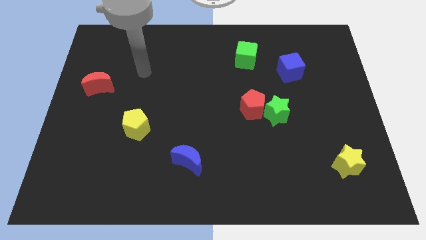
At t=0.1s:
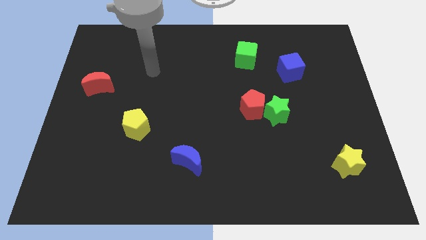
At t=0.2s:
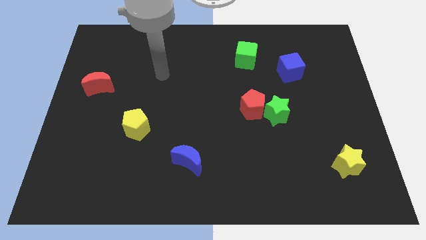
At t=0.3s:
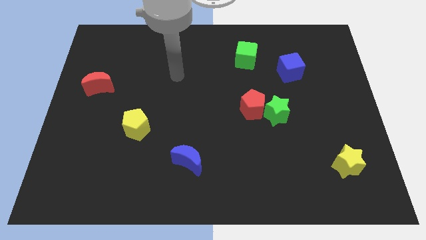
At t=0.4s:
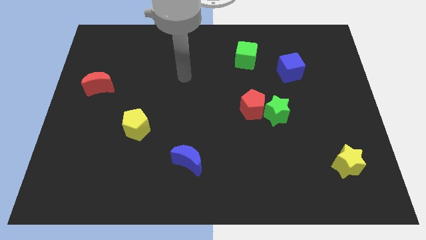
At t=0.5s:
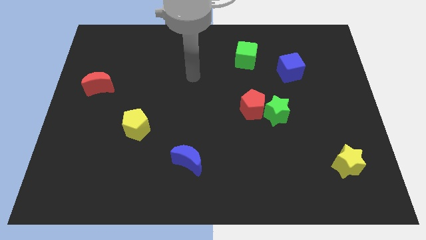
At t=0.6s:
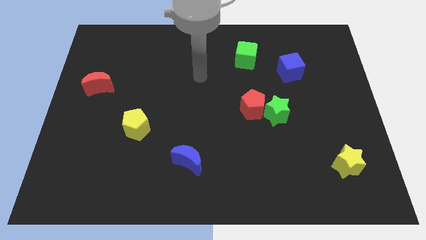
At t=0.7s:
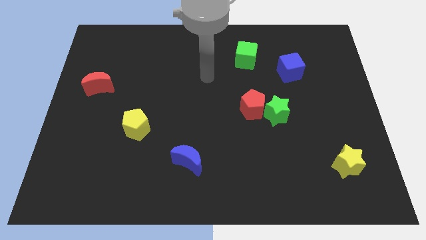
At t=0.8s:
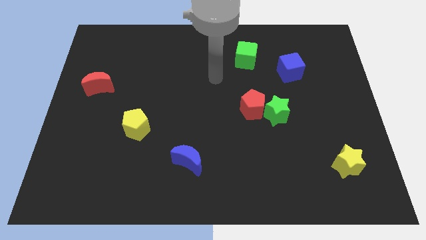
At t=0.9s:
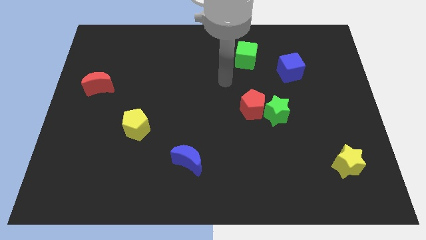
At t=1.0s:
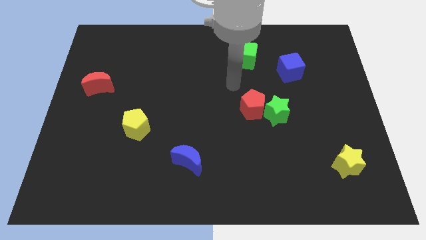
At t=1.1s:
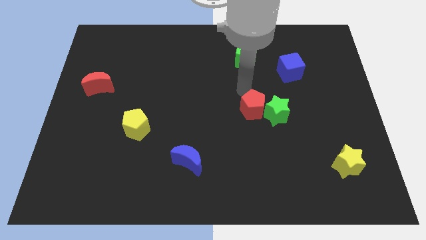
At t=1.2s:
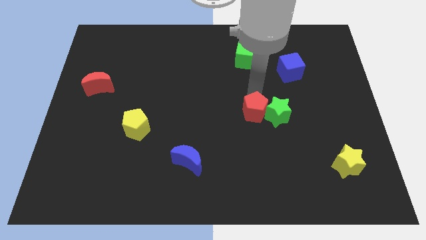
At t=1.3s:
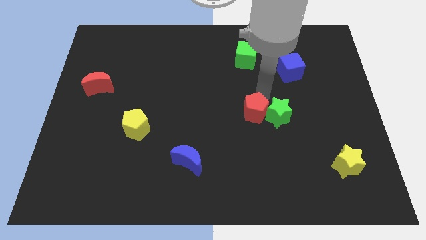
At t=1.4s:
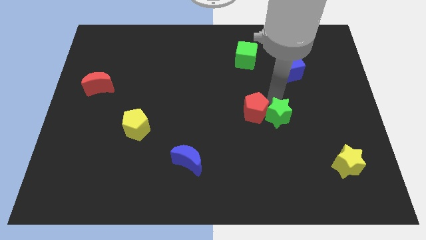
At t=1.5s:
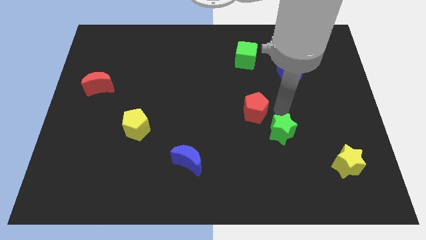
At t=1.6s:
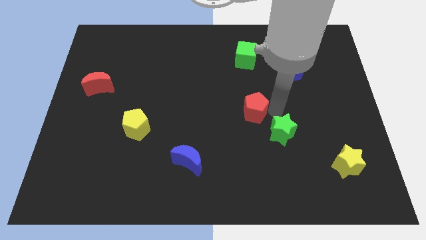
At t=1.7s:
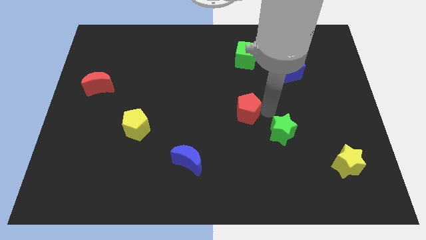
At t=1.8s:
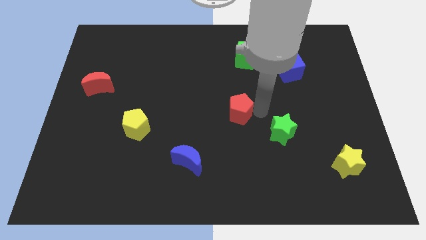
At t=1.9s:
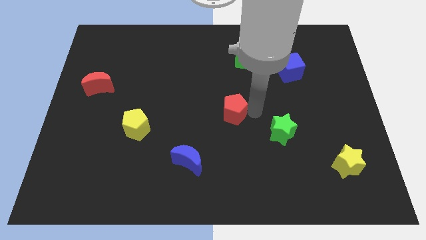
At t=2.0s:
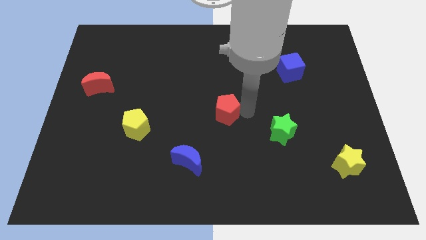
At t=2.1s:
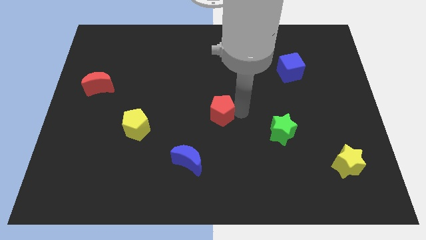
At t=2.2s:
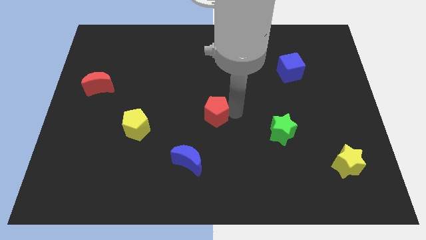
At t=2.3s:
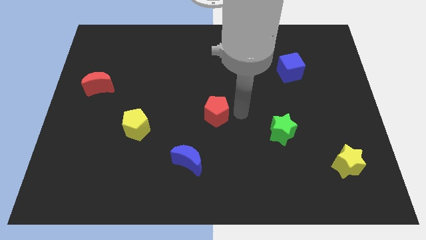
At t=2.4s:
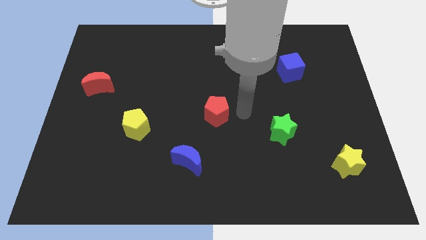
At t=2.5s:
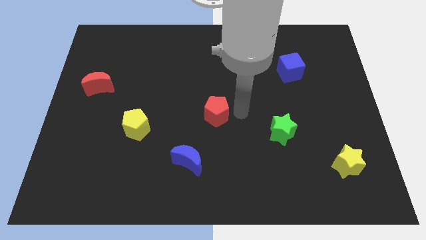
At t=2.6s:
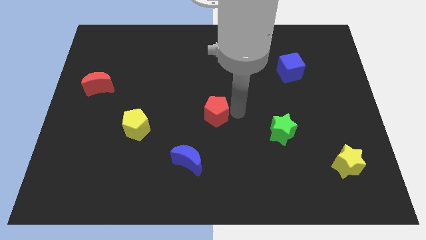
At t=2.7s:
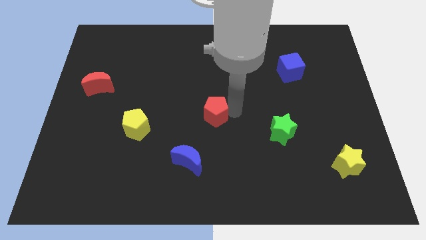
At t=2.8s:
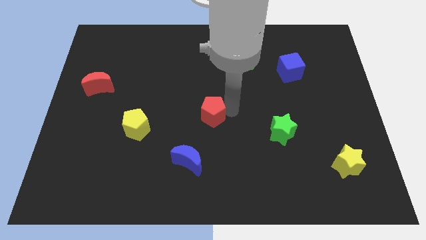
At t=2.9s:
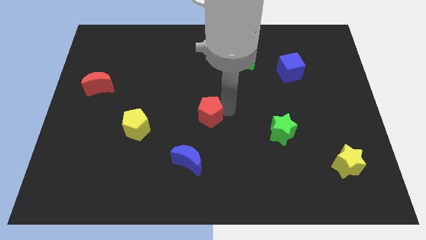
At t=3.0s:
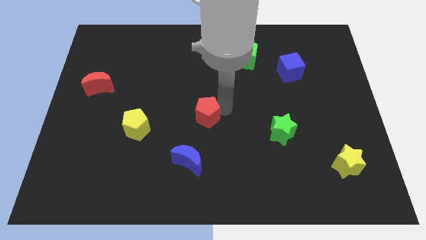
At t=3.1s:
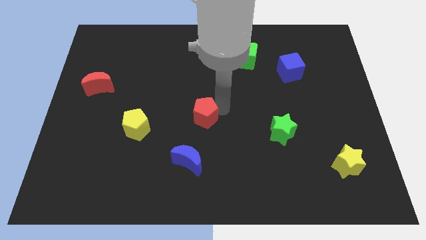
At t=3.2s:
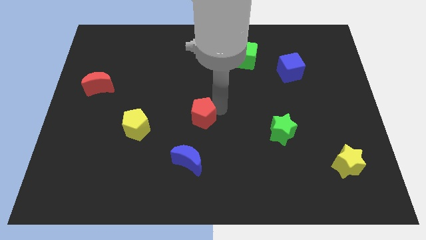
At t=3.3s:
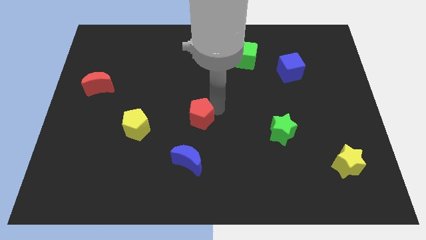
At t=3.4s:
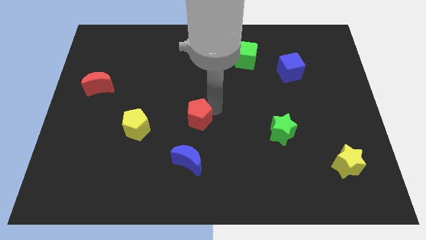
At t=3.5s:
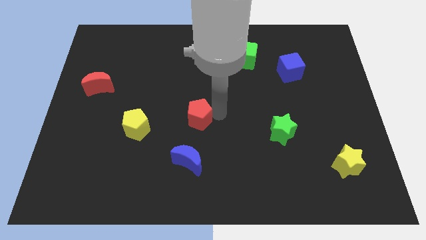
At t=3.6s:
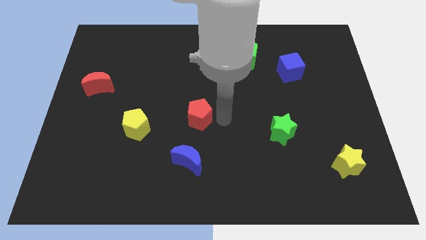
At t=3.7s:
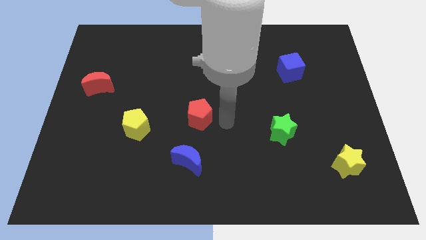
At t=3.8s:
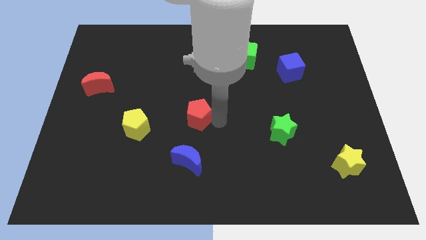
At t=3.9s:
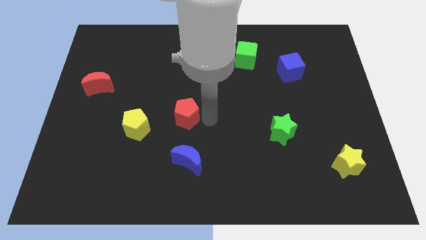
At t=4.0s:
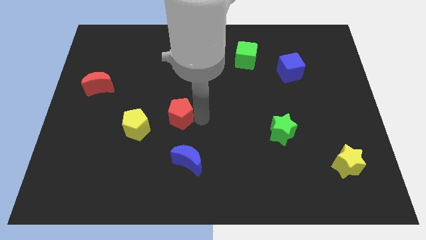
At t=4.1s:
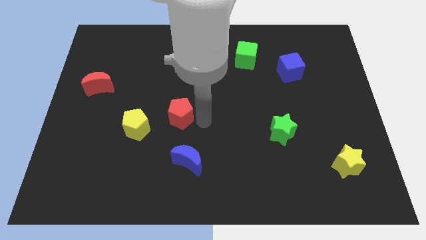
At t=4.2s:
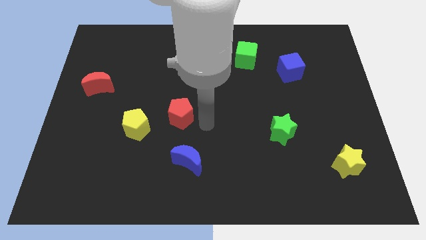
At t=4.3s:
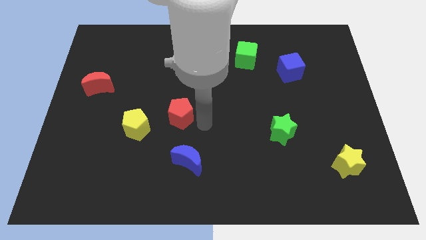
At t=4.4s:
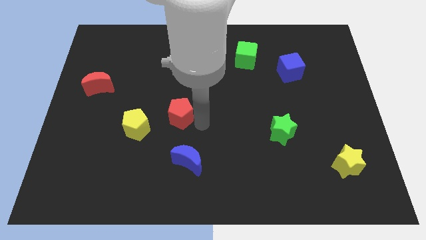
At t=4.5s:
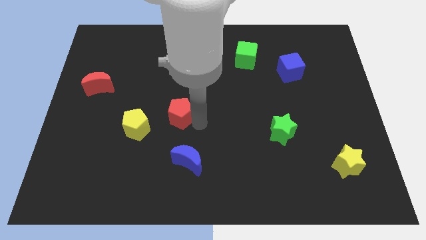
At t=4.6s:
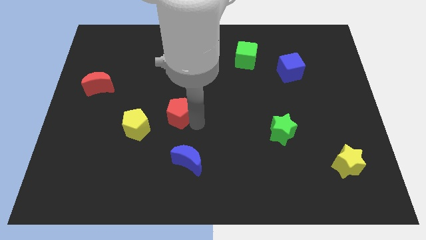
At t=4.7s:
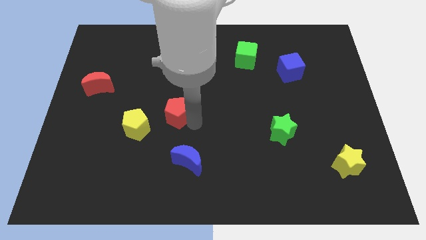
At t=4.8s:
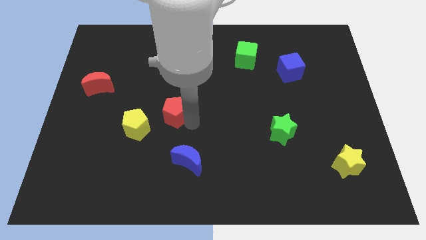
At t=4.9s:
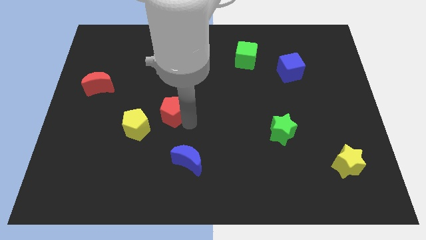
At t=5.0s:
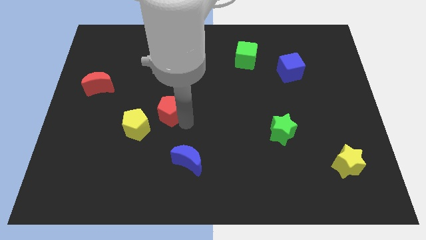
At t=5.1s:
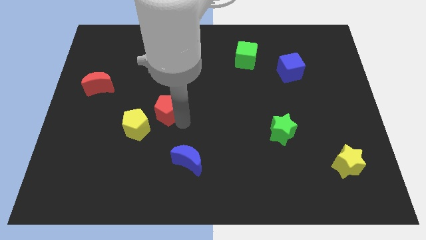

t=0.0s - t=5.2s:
move the red pentagon to the left

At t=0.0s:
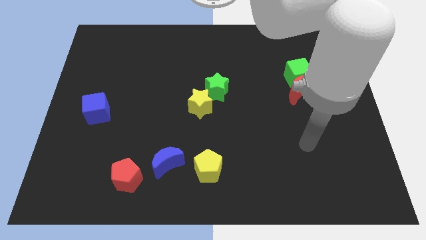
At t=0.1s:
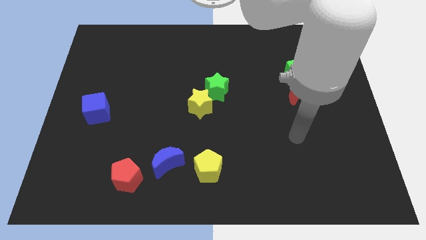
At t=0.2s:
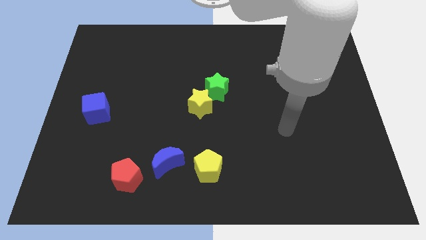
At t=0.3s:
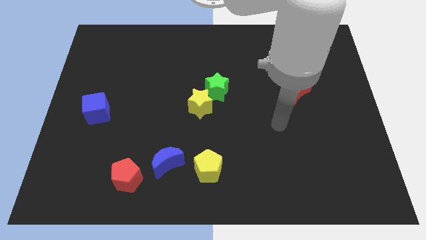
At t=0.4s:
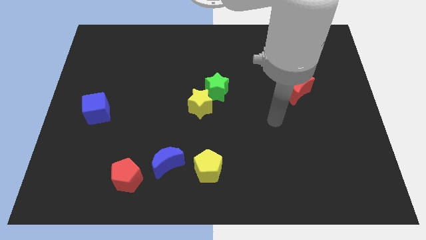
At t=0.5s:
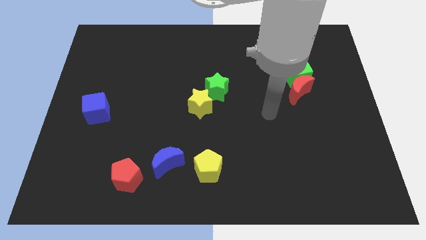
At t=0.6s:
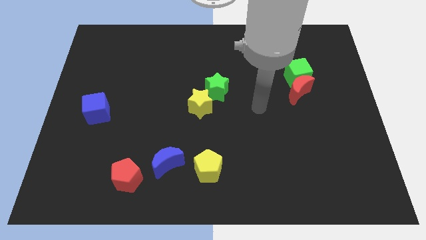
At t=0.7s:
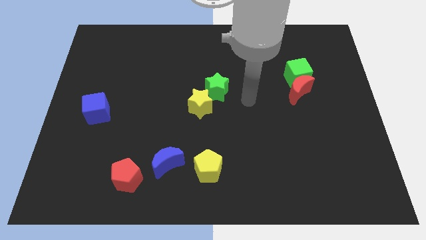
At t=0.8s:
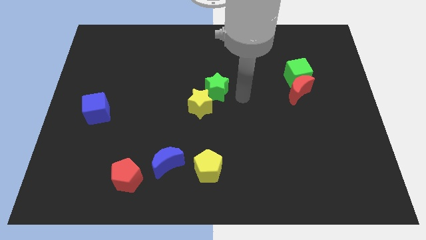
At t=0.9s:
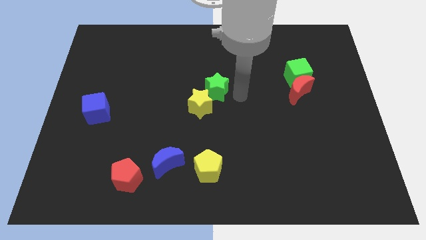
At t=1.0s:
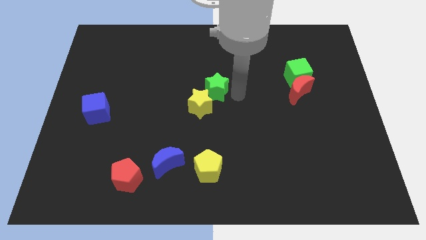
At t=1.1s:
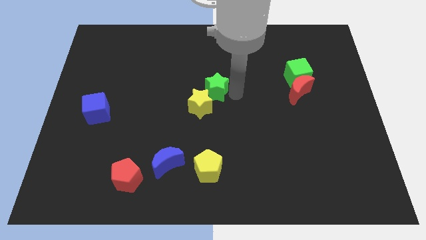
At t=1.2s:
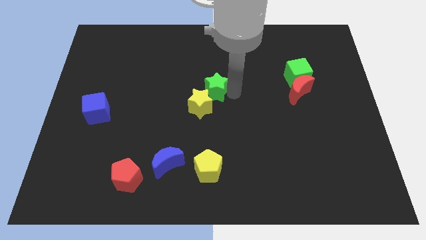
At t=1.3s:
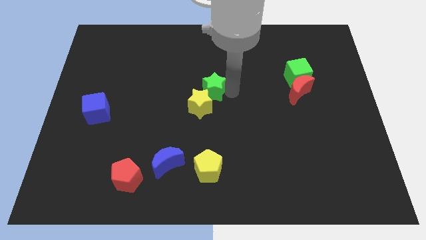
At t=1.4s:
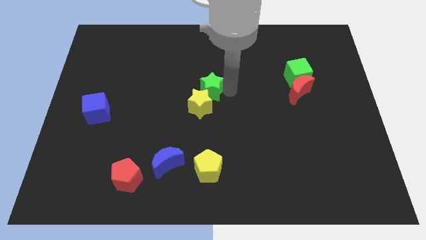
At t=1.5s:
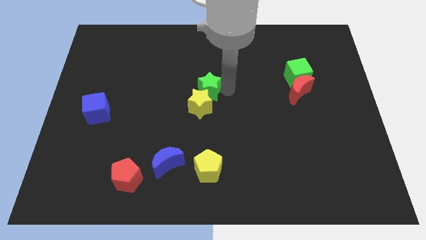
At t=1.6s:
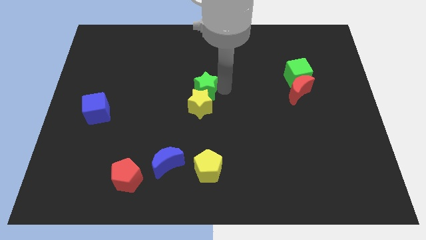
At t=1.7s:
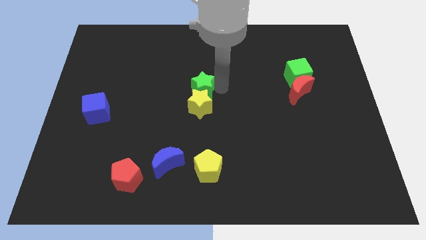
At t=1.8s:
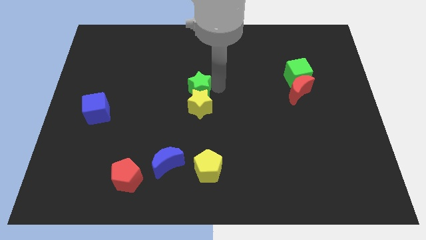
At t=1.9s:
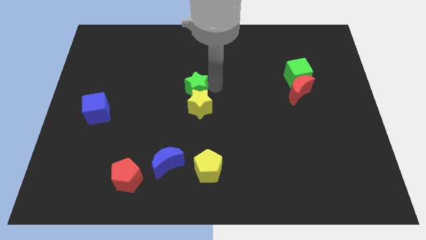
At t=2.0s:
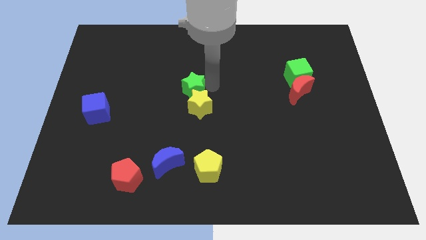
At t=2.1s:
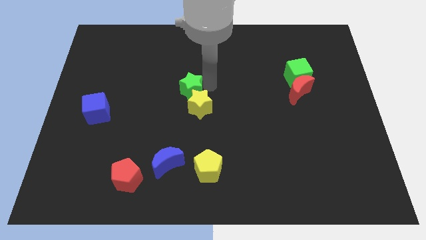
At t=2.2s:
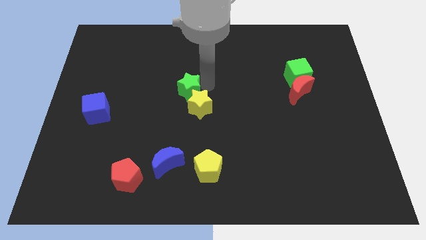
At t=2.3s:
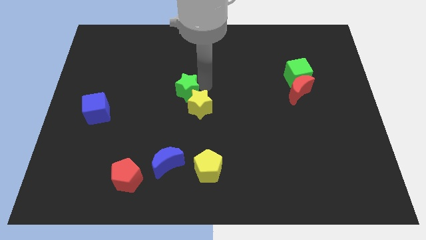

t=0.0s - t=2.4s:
slide the green star left a bit

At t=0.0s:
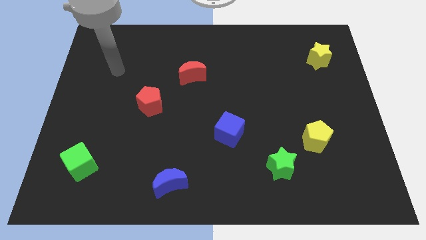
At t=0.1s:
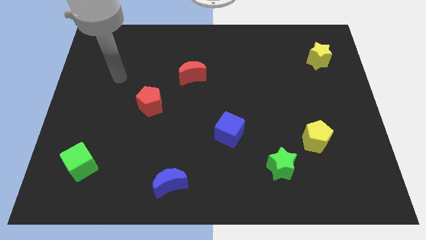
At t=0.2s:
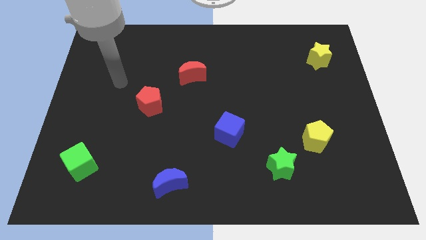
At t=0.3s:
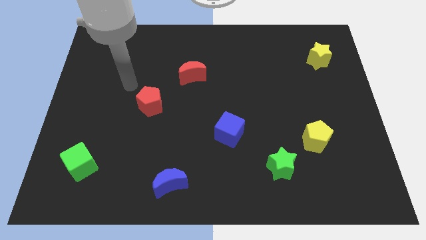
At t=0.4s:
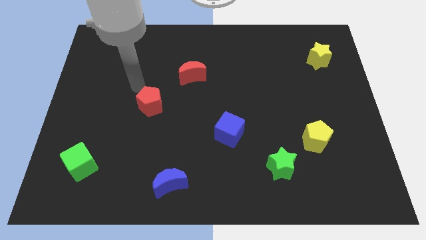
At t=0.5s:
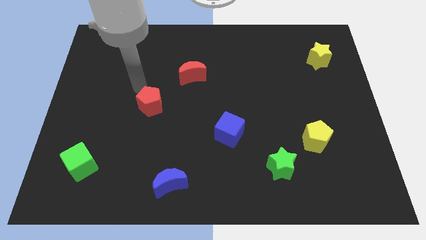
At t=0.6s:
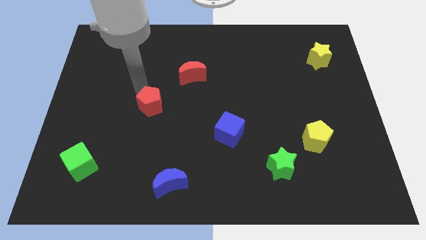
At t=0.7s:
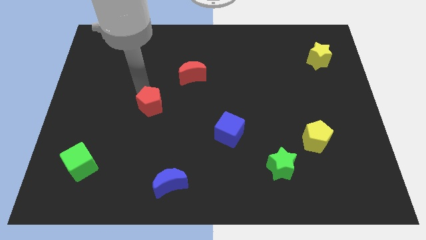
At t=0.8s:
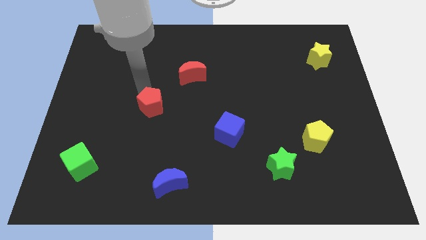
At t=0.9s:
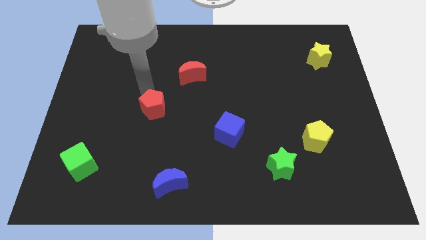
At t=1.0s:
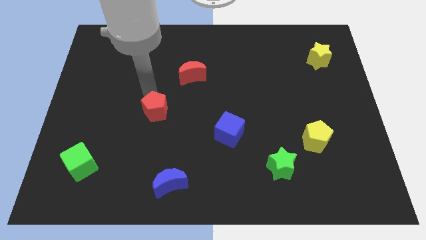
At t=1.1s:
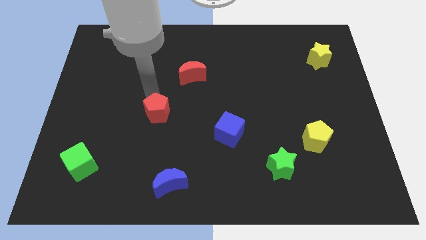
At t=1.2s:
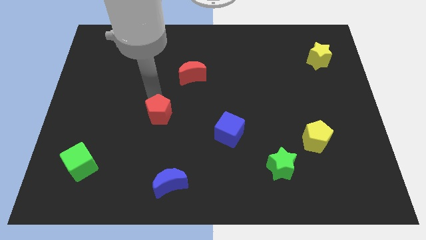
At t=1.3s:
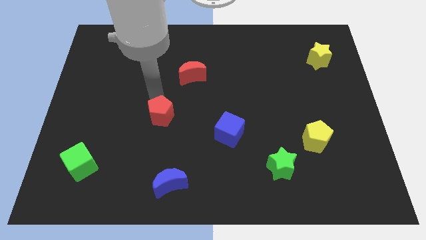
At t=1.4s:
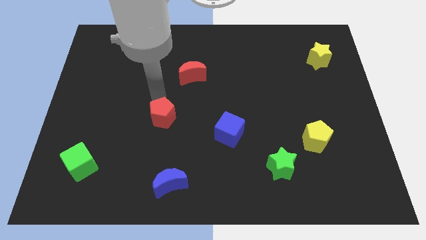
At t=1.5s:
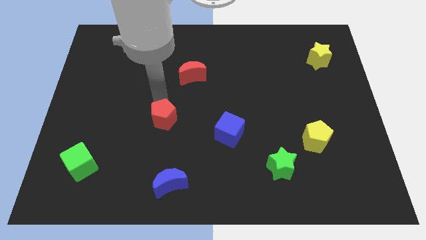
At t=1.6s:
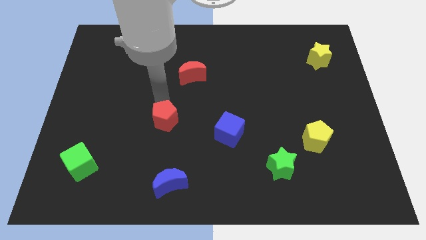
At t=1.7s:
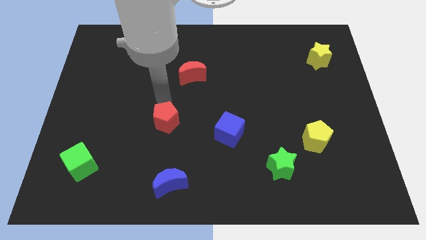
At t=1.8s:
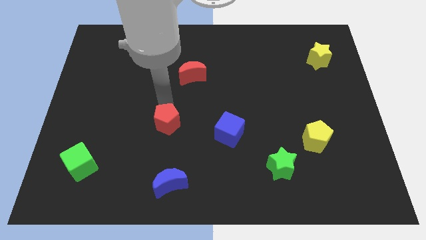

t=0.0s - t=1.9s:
slightly push the red pentagon down and to the right diagonally
